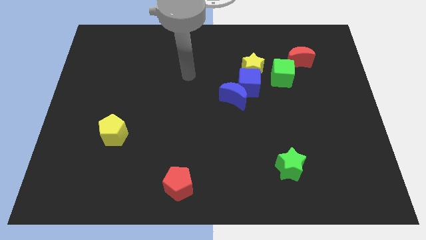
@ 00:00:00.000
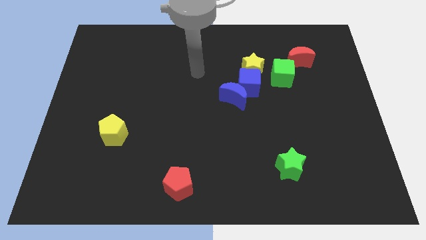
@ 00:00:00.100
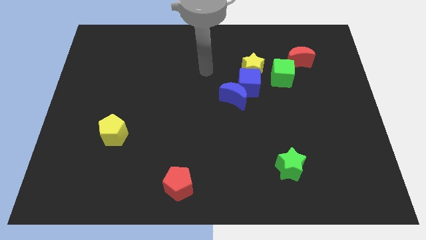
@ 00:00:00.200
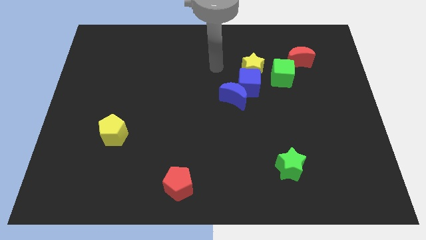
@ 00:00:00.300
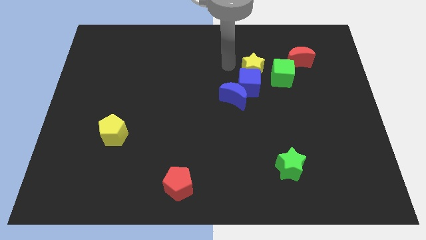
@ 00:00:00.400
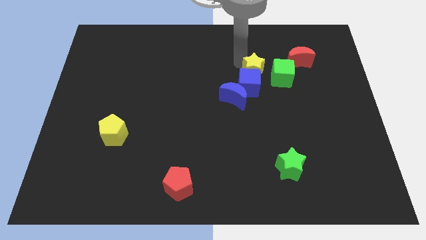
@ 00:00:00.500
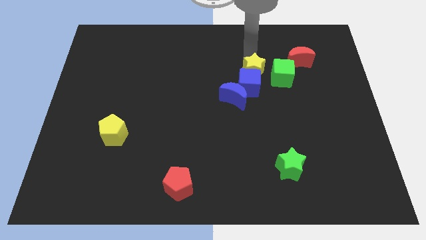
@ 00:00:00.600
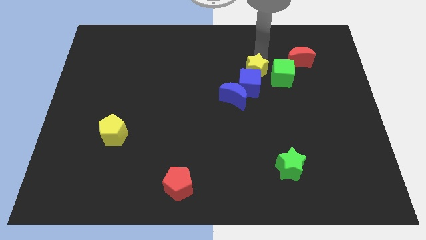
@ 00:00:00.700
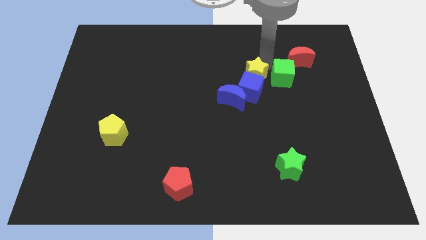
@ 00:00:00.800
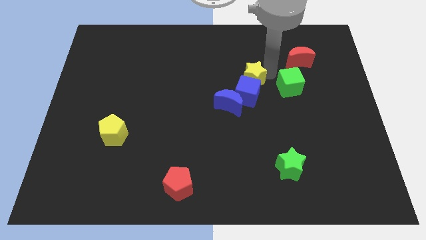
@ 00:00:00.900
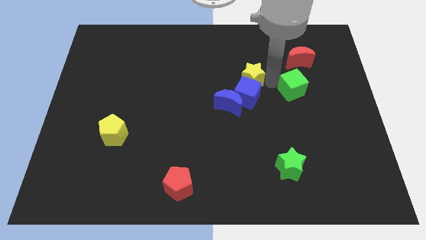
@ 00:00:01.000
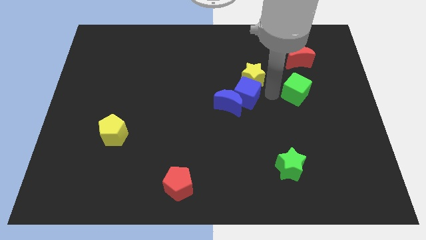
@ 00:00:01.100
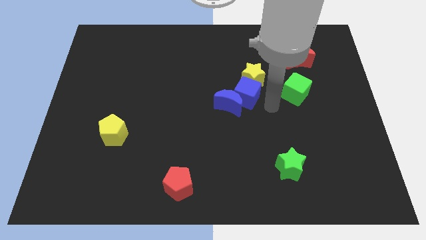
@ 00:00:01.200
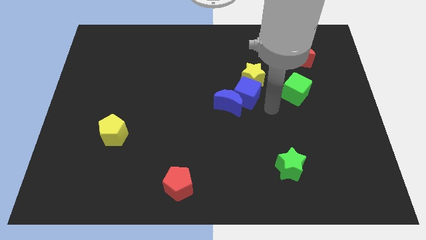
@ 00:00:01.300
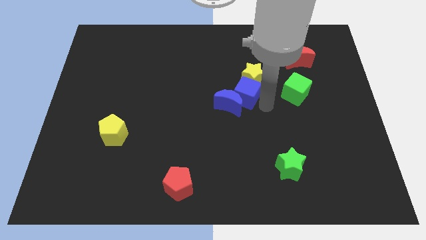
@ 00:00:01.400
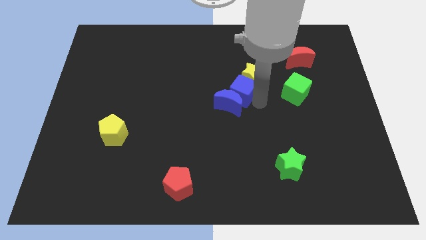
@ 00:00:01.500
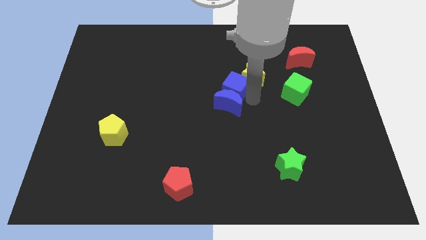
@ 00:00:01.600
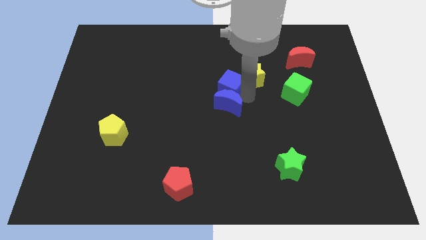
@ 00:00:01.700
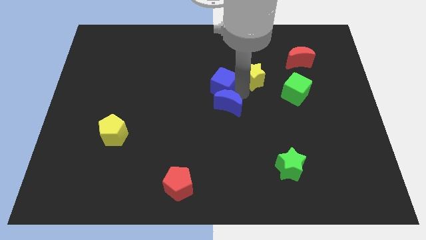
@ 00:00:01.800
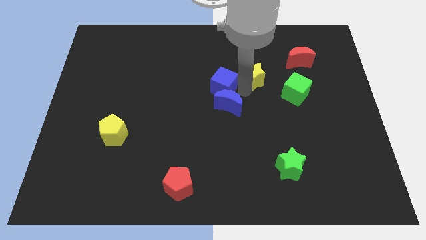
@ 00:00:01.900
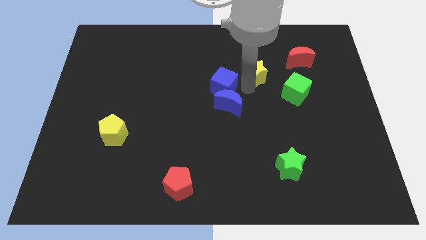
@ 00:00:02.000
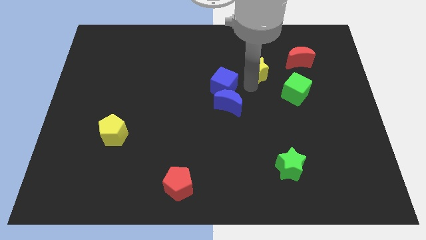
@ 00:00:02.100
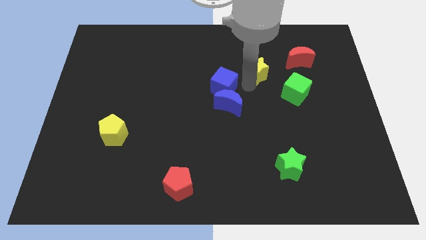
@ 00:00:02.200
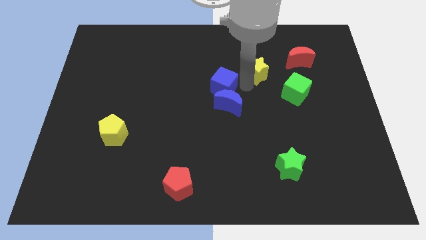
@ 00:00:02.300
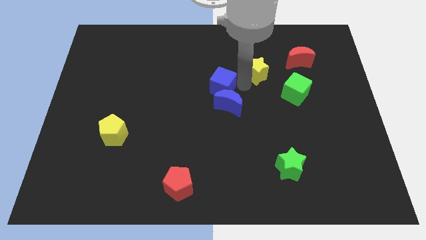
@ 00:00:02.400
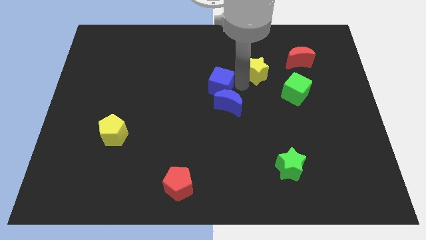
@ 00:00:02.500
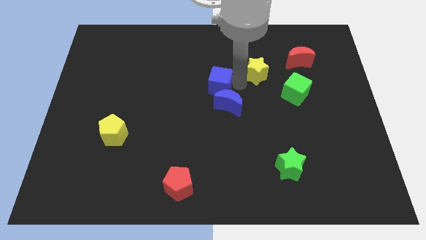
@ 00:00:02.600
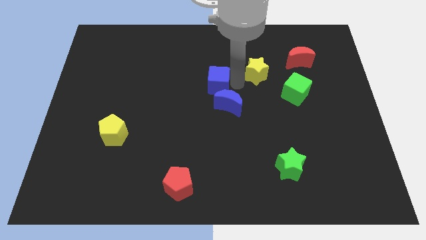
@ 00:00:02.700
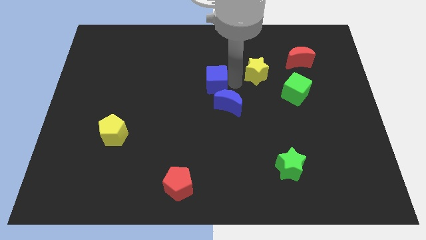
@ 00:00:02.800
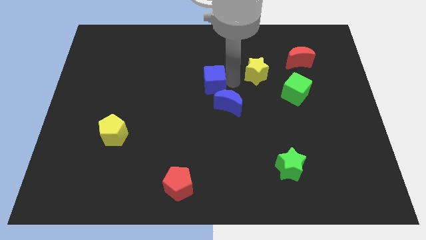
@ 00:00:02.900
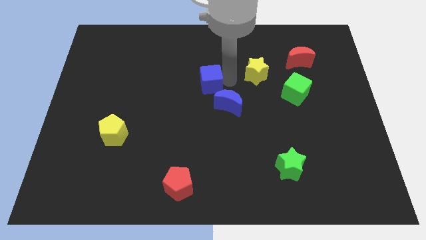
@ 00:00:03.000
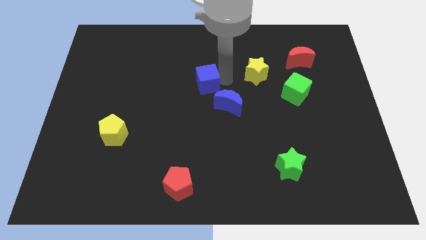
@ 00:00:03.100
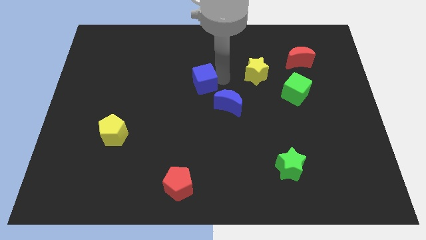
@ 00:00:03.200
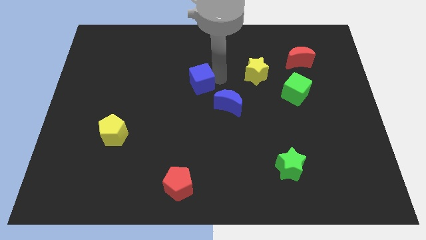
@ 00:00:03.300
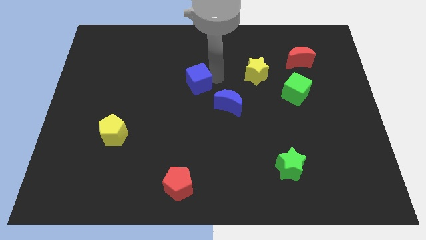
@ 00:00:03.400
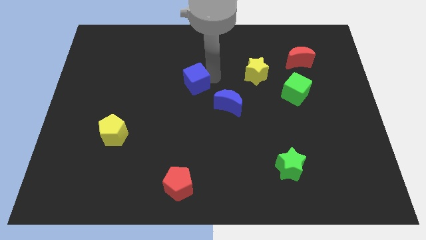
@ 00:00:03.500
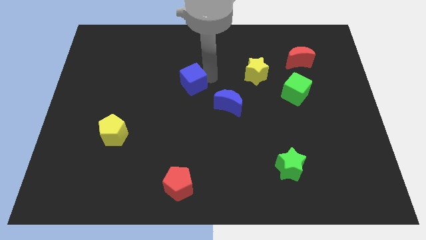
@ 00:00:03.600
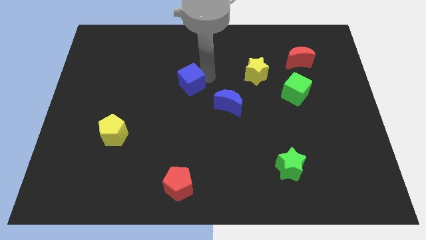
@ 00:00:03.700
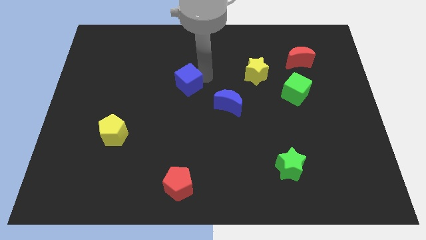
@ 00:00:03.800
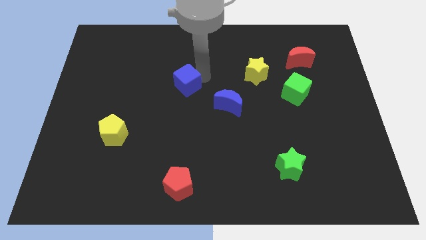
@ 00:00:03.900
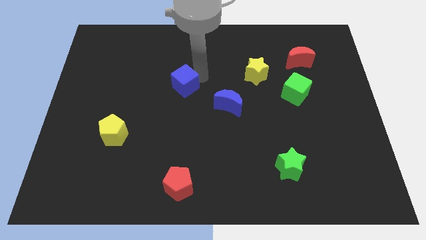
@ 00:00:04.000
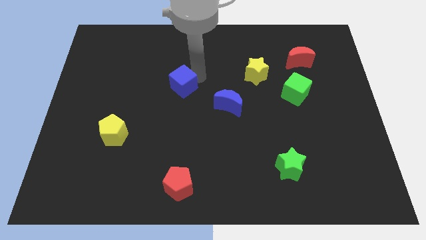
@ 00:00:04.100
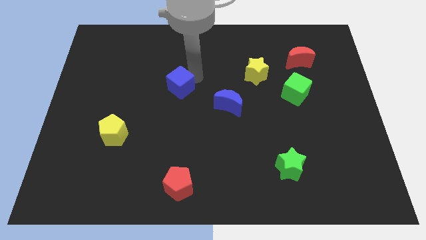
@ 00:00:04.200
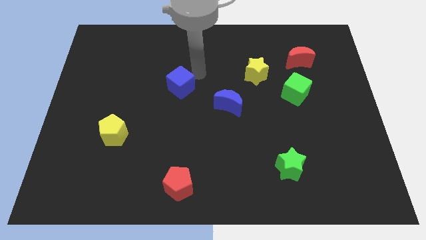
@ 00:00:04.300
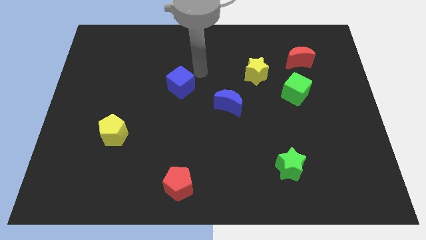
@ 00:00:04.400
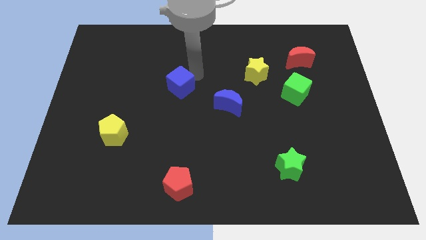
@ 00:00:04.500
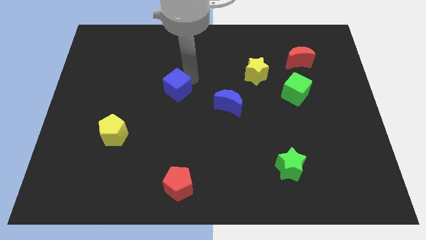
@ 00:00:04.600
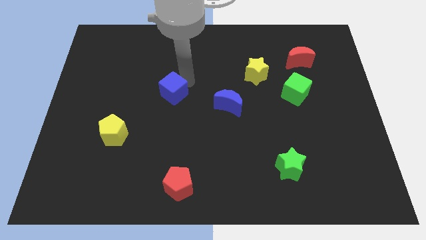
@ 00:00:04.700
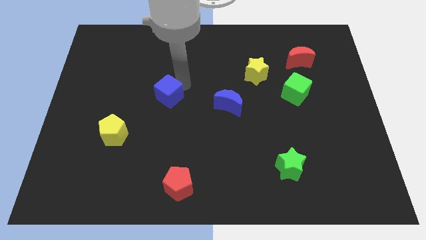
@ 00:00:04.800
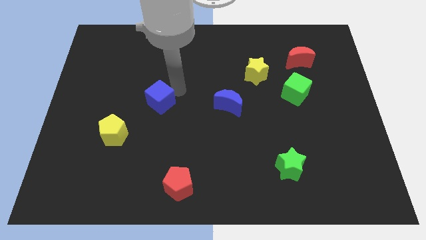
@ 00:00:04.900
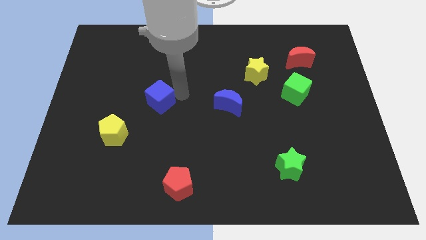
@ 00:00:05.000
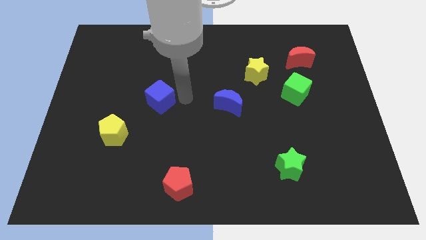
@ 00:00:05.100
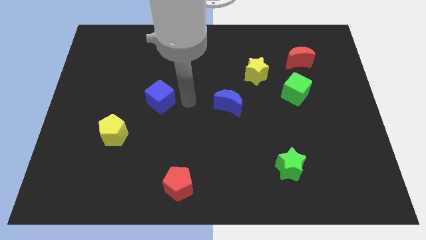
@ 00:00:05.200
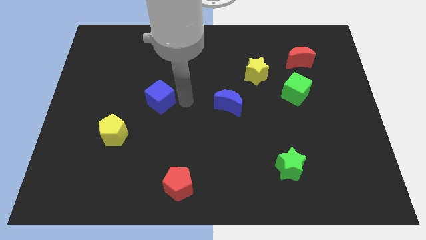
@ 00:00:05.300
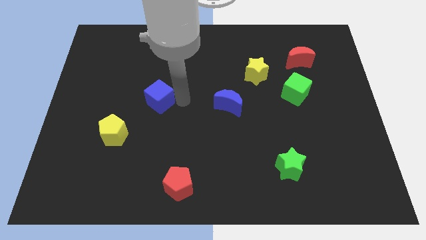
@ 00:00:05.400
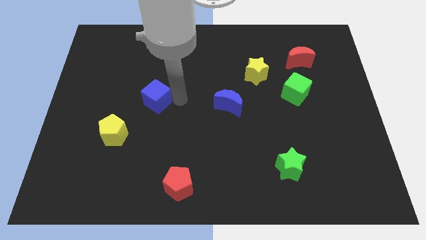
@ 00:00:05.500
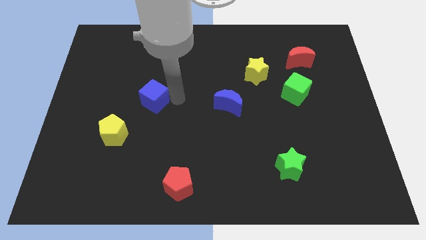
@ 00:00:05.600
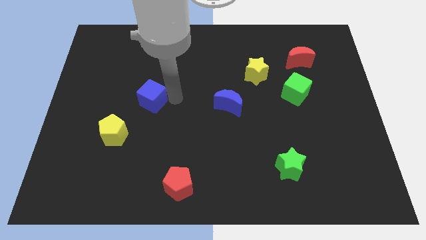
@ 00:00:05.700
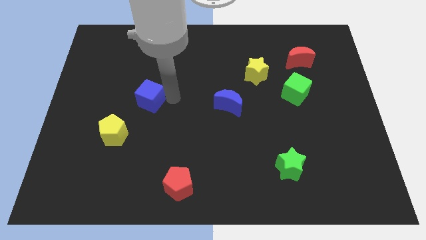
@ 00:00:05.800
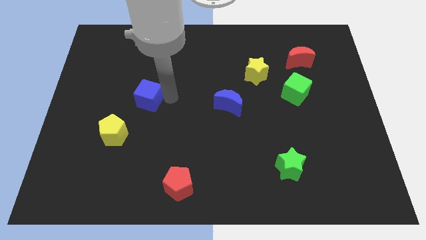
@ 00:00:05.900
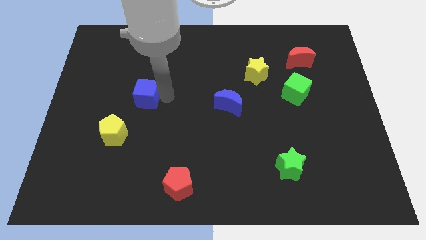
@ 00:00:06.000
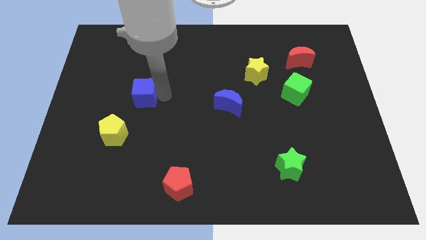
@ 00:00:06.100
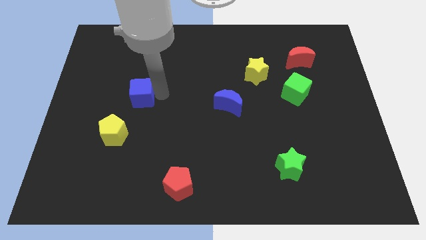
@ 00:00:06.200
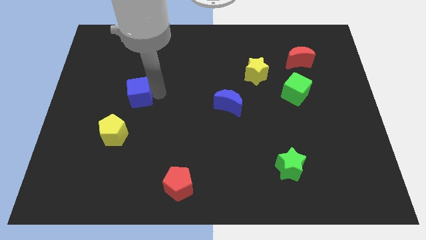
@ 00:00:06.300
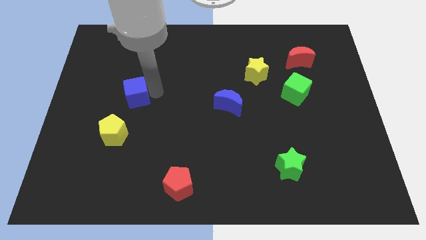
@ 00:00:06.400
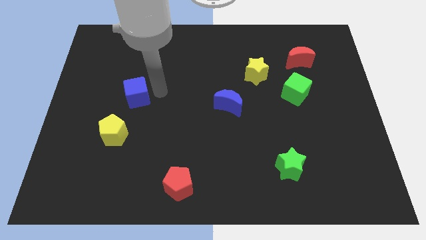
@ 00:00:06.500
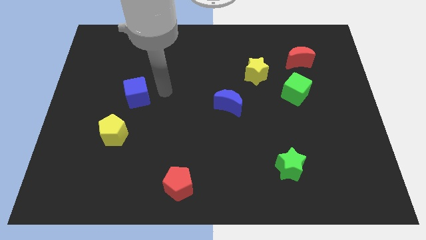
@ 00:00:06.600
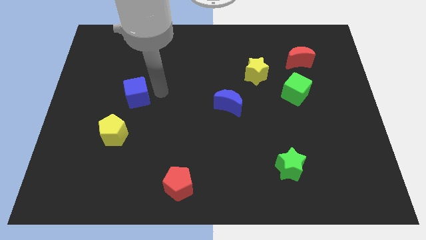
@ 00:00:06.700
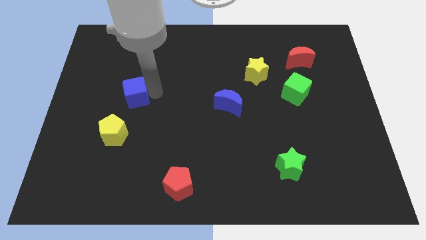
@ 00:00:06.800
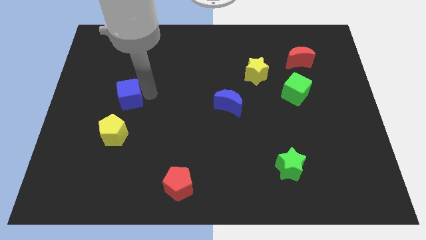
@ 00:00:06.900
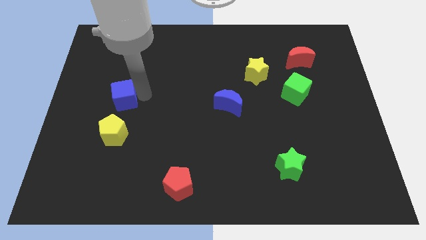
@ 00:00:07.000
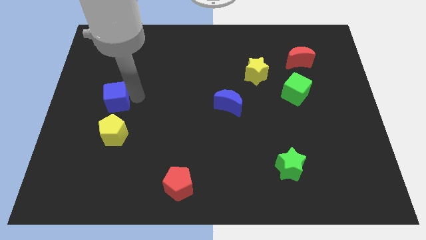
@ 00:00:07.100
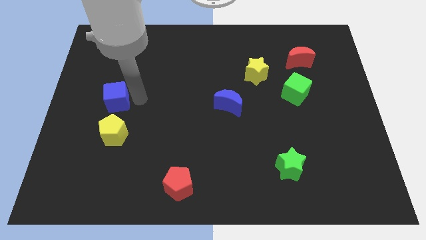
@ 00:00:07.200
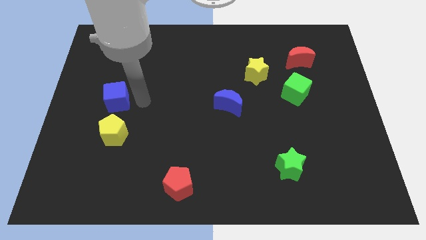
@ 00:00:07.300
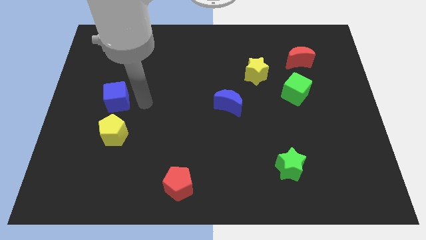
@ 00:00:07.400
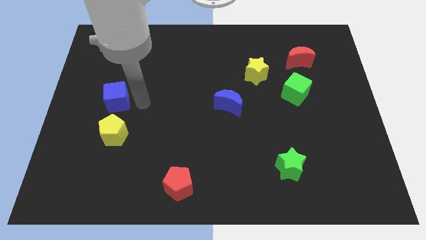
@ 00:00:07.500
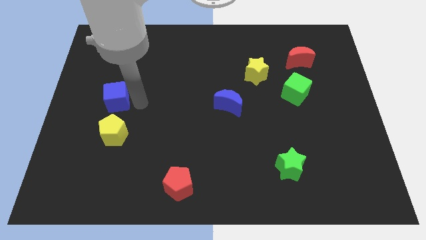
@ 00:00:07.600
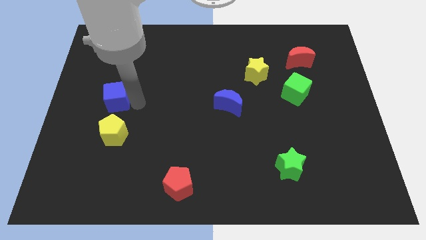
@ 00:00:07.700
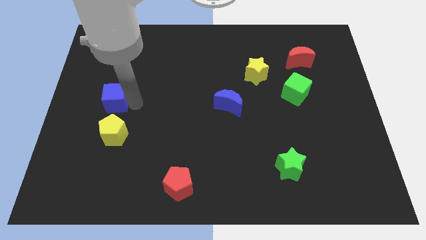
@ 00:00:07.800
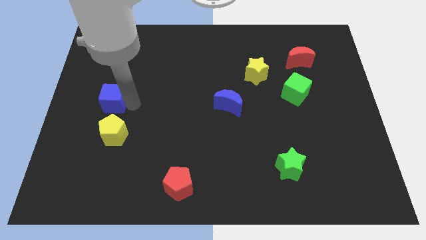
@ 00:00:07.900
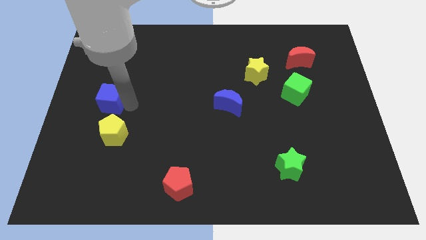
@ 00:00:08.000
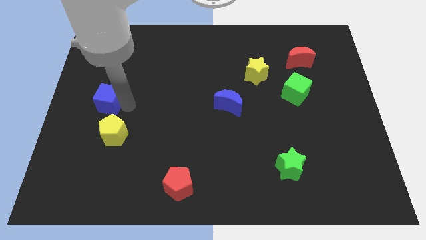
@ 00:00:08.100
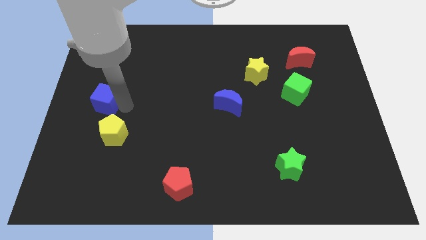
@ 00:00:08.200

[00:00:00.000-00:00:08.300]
move the blue cube to the left side
